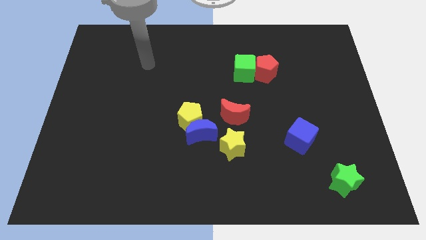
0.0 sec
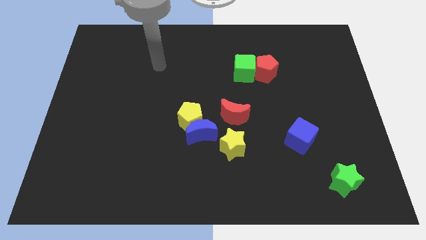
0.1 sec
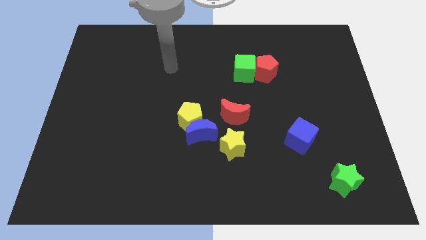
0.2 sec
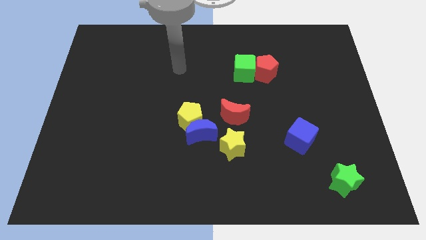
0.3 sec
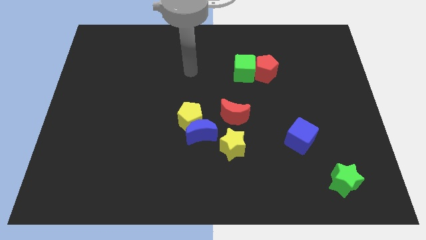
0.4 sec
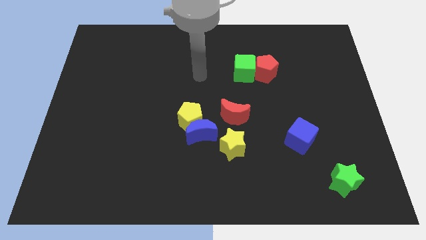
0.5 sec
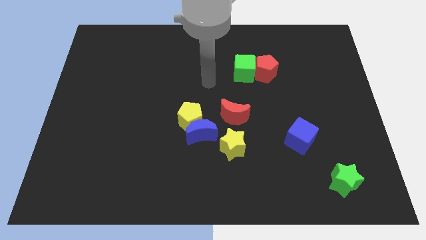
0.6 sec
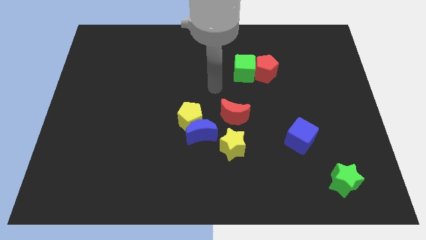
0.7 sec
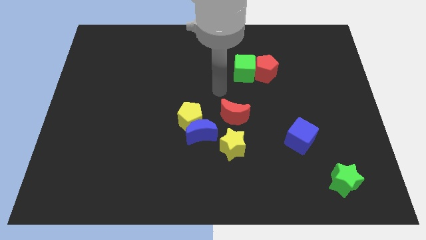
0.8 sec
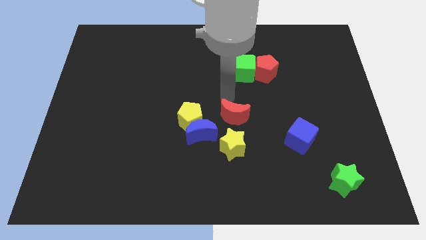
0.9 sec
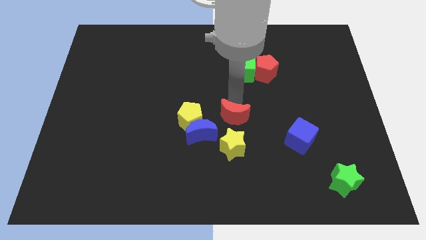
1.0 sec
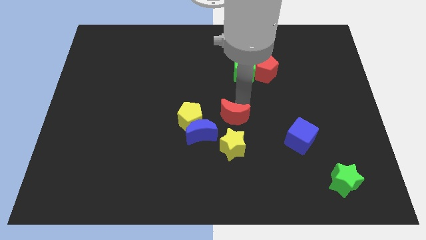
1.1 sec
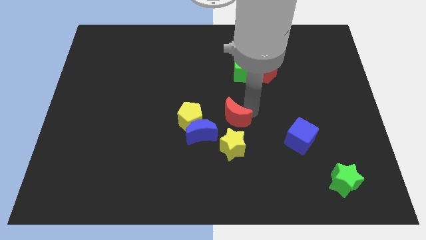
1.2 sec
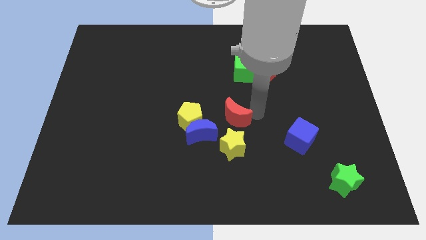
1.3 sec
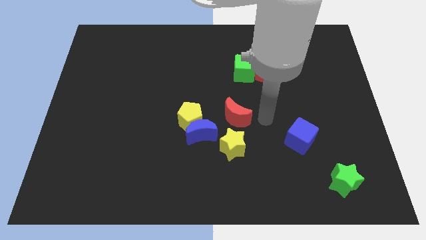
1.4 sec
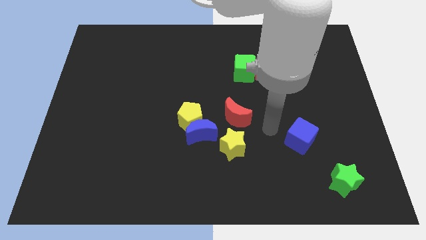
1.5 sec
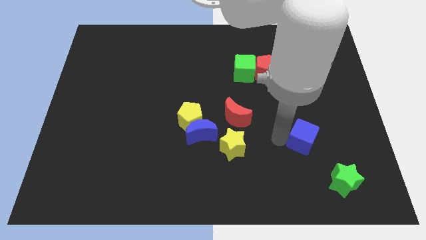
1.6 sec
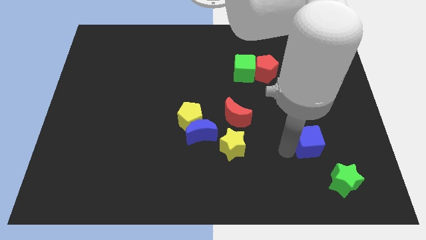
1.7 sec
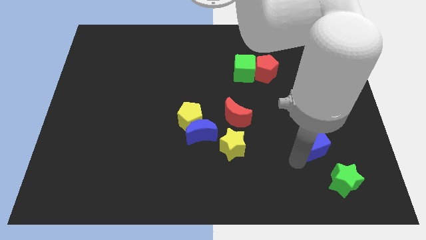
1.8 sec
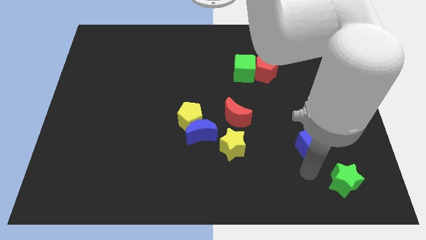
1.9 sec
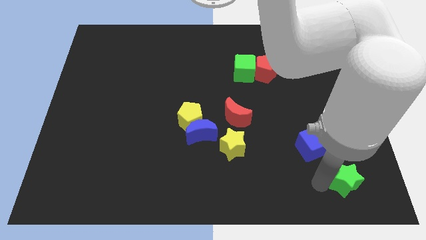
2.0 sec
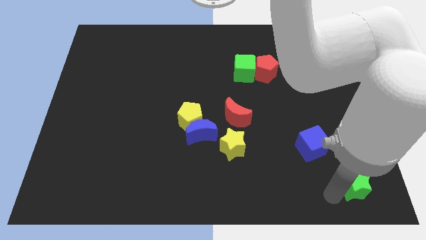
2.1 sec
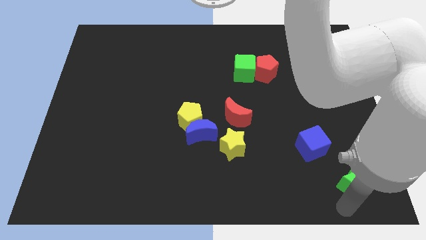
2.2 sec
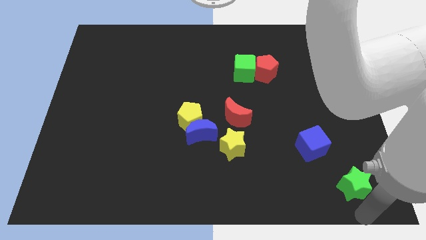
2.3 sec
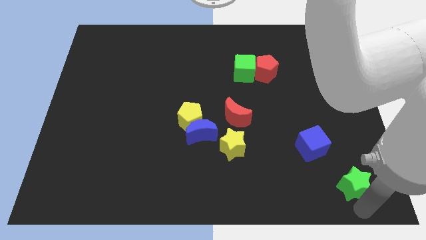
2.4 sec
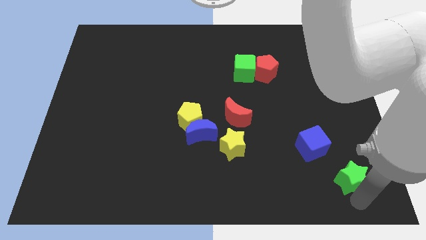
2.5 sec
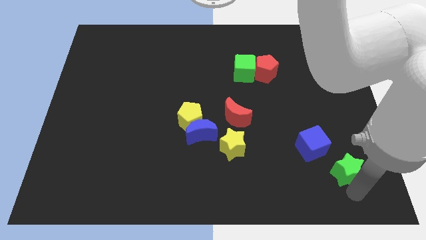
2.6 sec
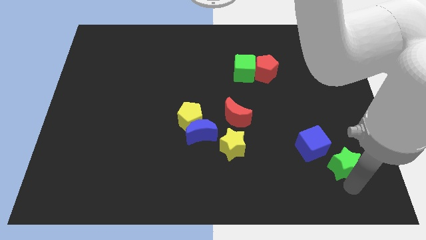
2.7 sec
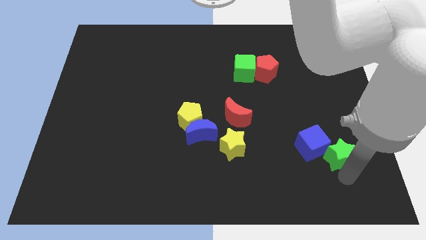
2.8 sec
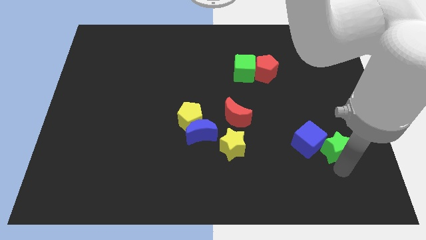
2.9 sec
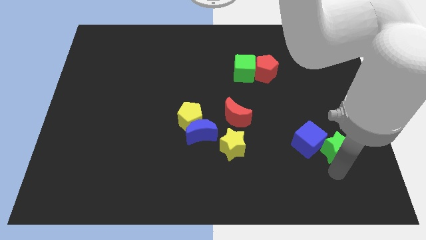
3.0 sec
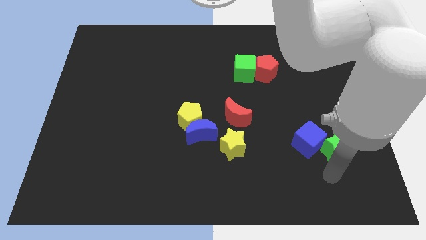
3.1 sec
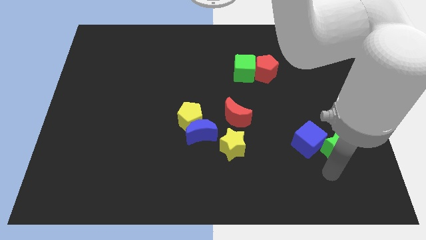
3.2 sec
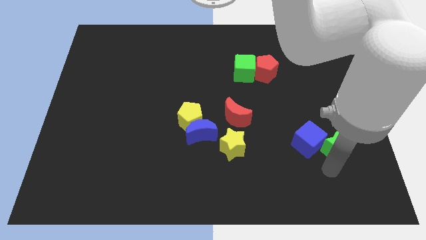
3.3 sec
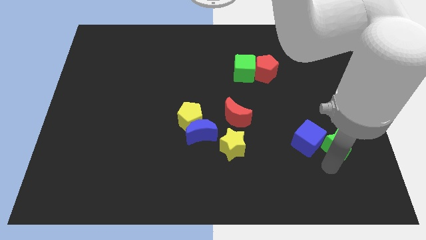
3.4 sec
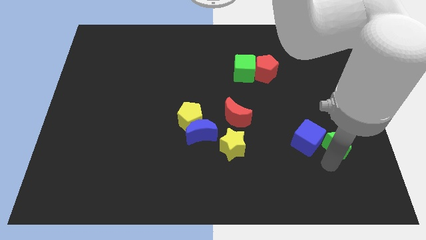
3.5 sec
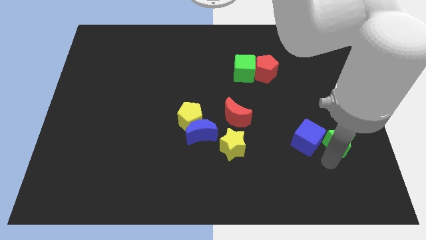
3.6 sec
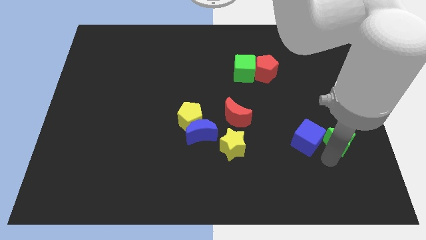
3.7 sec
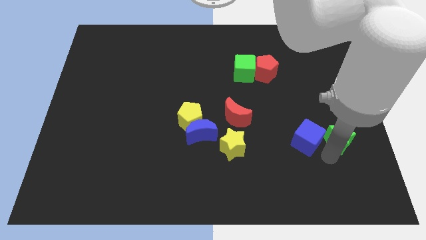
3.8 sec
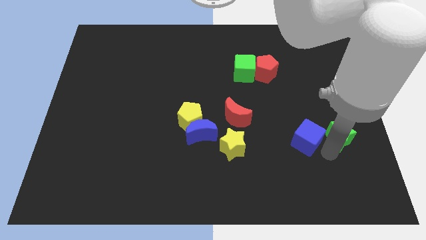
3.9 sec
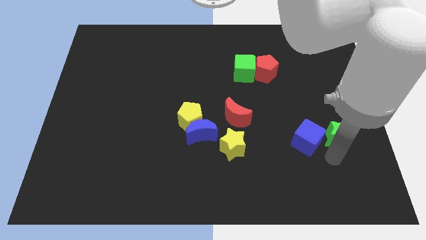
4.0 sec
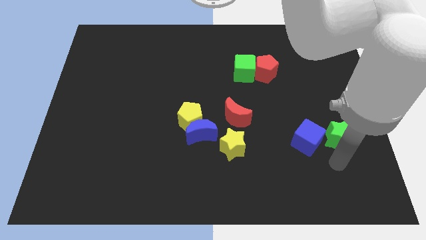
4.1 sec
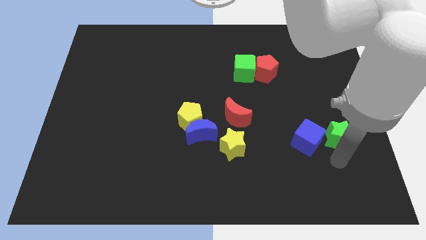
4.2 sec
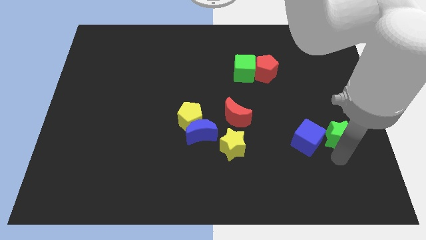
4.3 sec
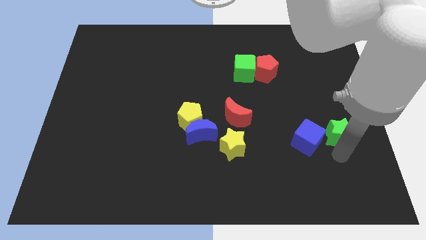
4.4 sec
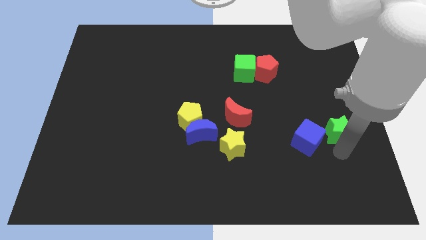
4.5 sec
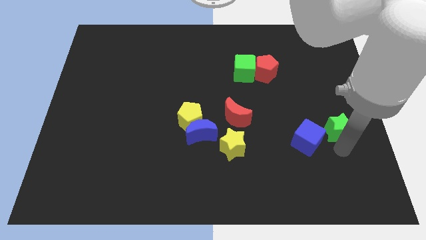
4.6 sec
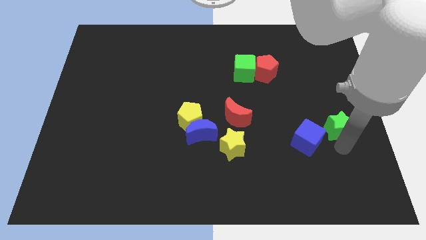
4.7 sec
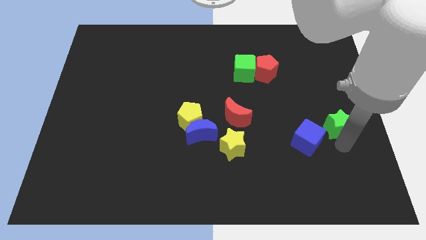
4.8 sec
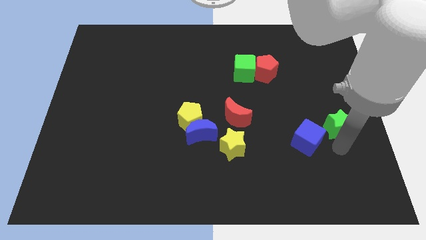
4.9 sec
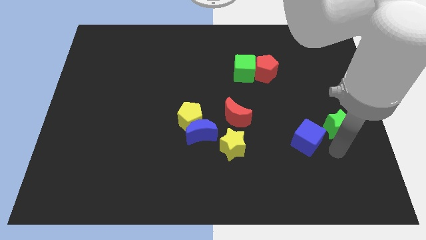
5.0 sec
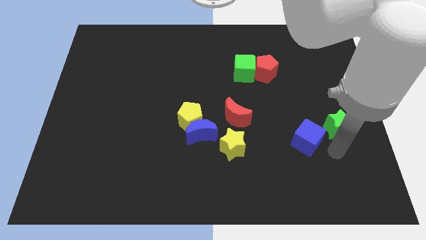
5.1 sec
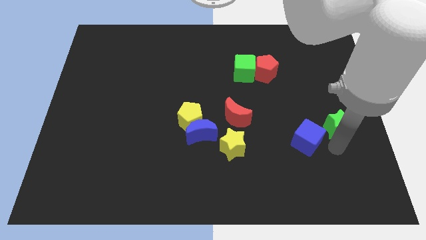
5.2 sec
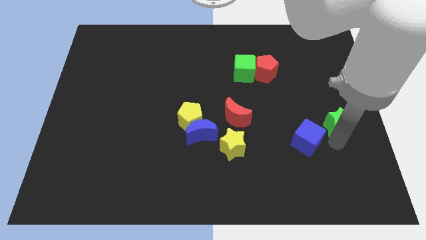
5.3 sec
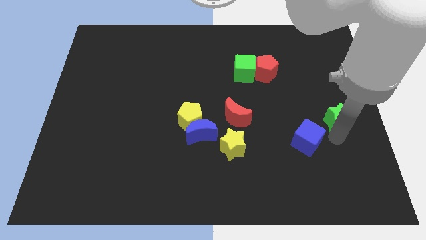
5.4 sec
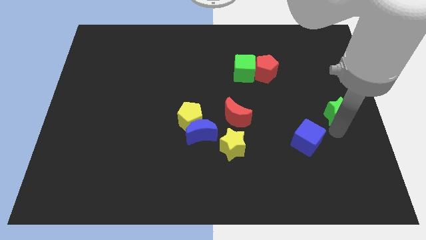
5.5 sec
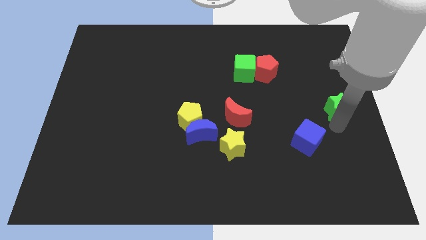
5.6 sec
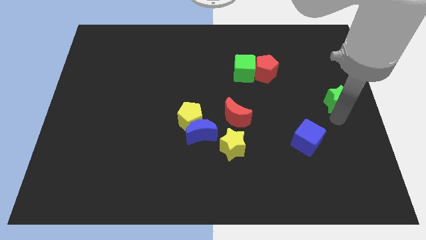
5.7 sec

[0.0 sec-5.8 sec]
move the green star up

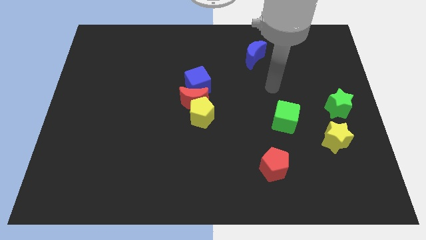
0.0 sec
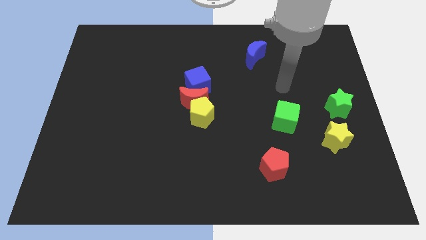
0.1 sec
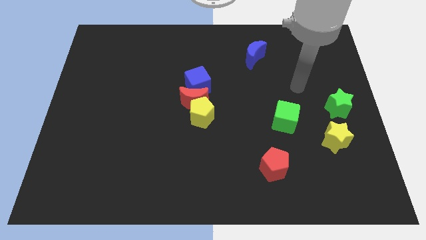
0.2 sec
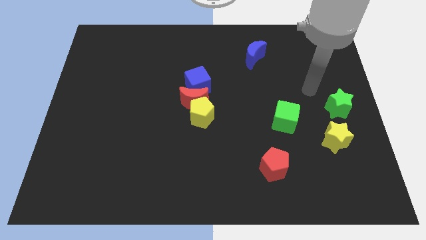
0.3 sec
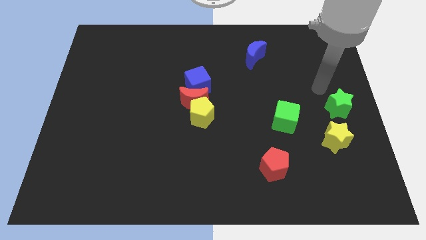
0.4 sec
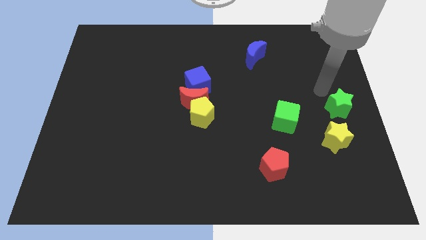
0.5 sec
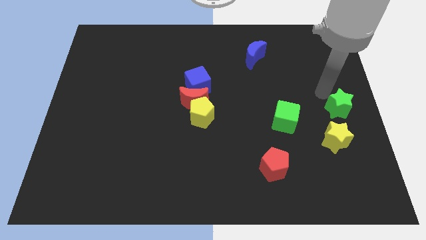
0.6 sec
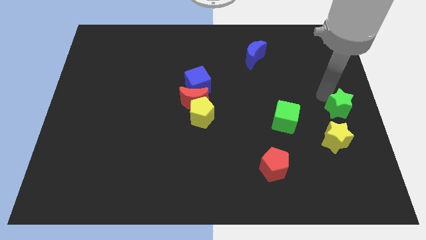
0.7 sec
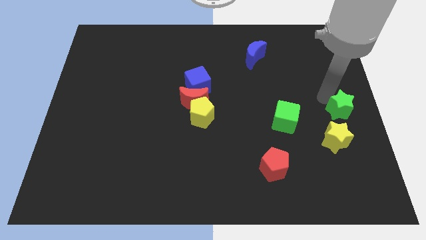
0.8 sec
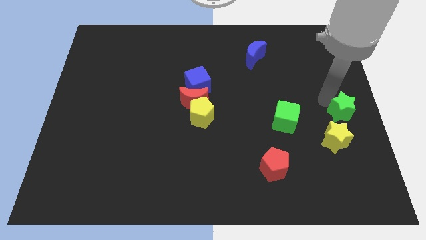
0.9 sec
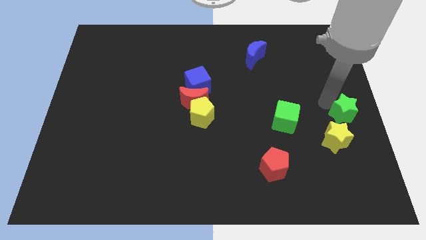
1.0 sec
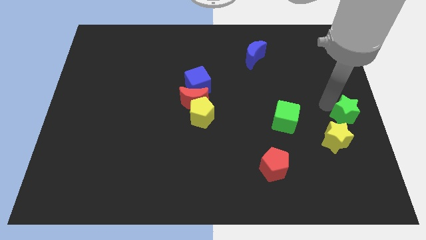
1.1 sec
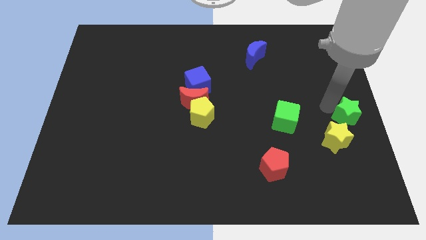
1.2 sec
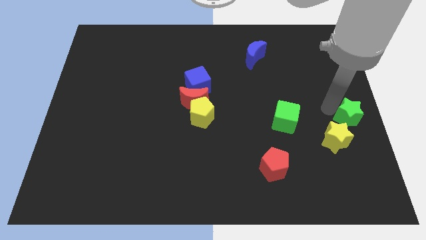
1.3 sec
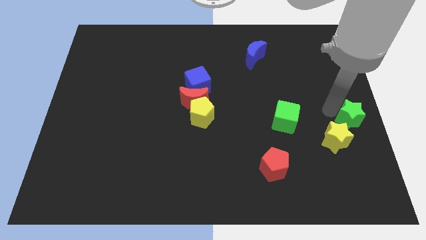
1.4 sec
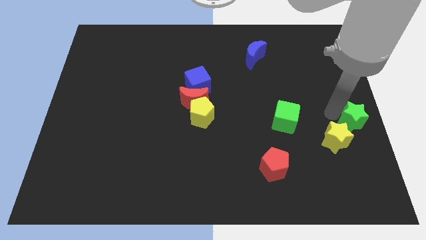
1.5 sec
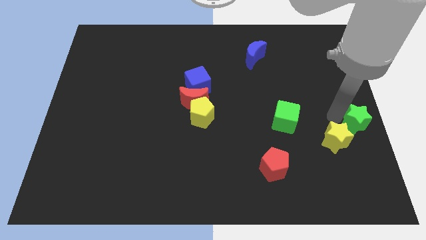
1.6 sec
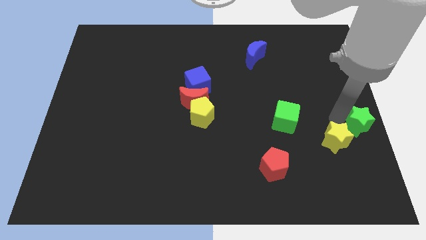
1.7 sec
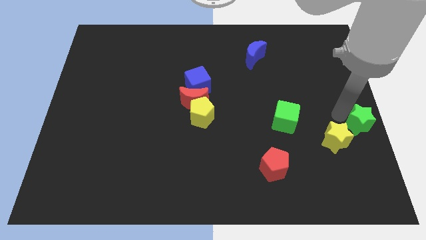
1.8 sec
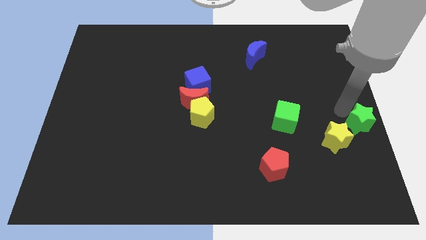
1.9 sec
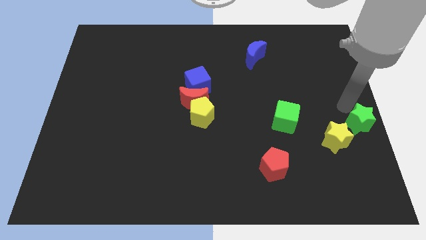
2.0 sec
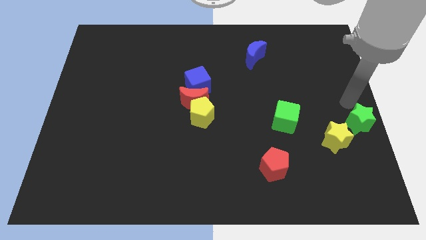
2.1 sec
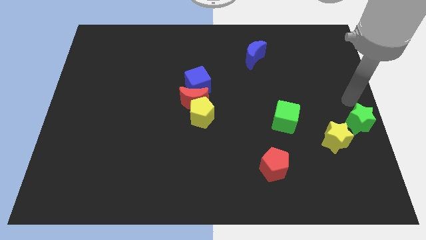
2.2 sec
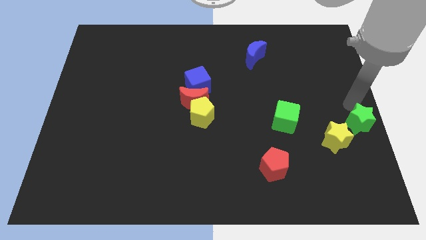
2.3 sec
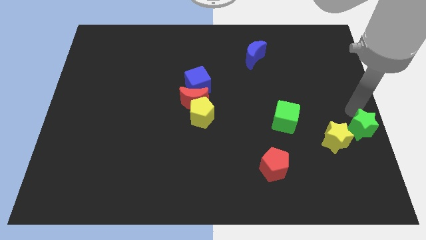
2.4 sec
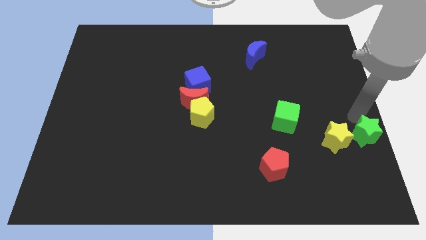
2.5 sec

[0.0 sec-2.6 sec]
slide the green star down a bit

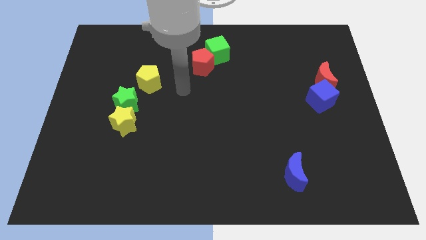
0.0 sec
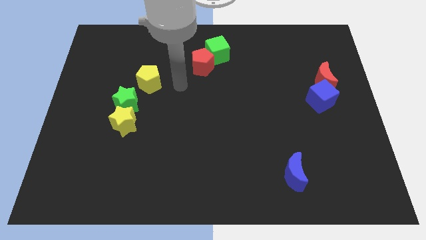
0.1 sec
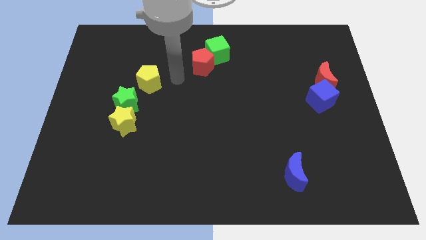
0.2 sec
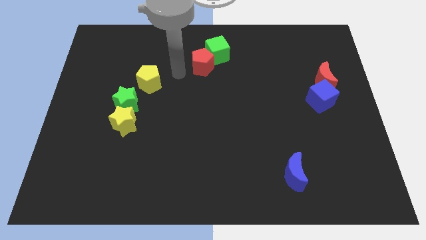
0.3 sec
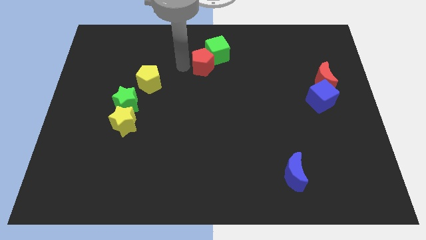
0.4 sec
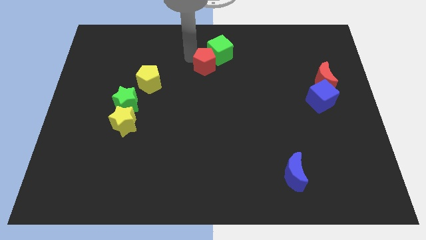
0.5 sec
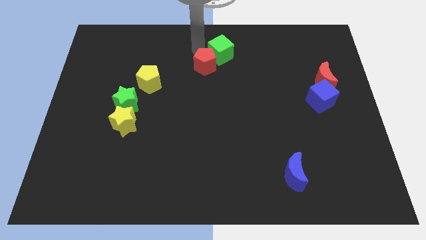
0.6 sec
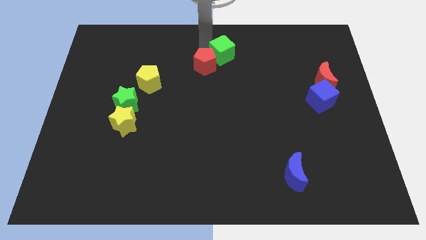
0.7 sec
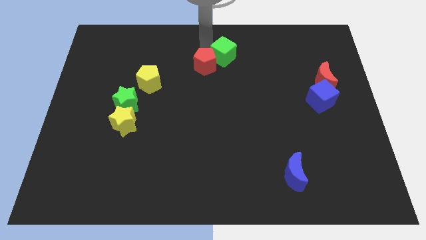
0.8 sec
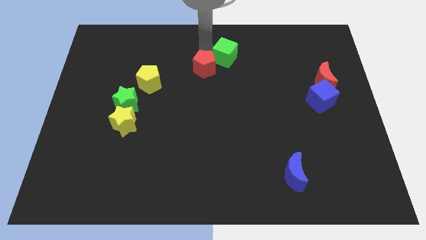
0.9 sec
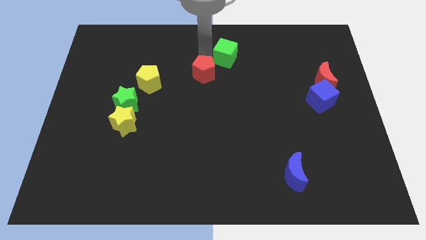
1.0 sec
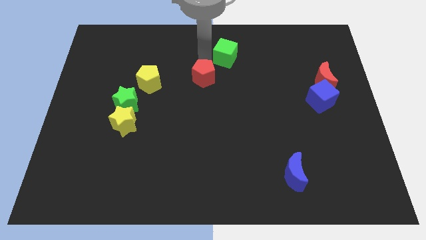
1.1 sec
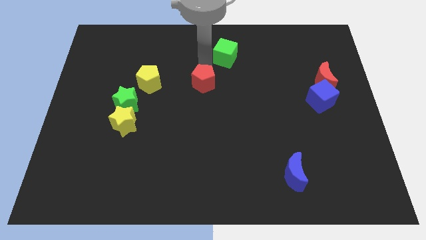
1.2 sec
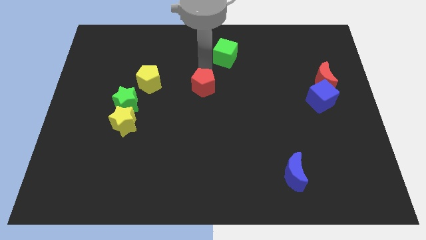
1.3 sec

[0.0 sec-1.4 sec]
slide the red pentagon down somewhat
